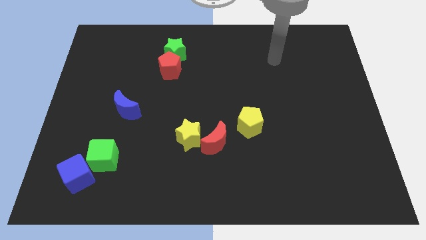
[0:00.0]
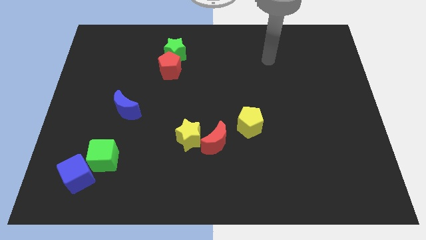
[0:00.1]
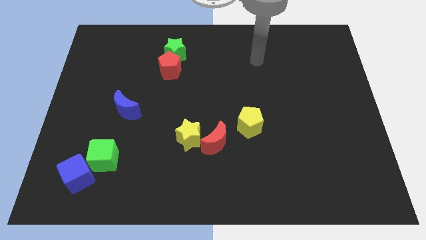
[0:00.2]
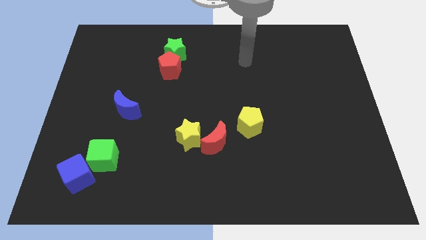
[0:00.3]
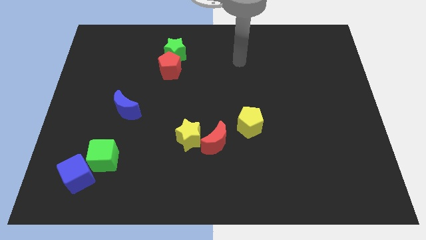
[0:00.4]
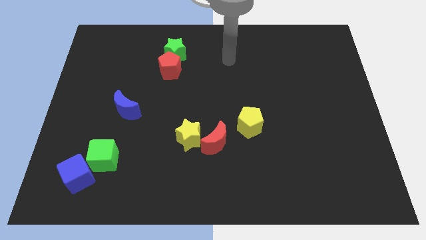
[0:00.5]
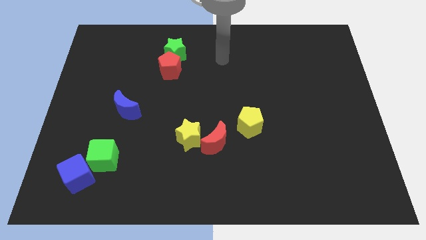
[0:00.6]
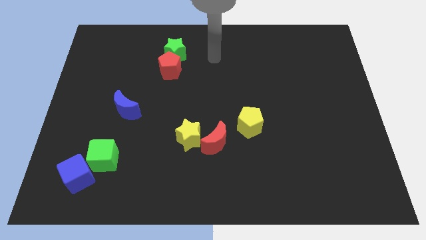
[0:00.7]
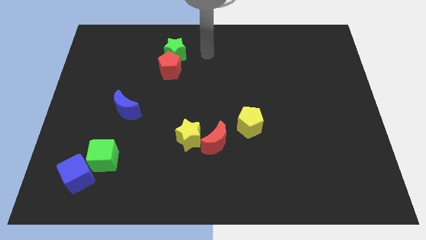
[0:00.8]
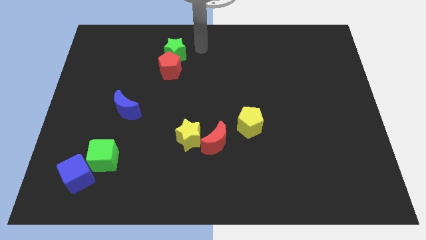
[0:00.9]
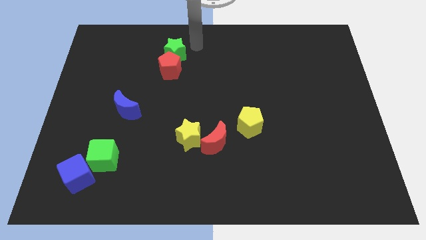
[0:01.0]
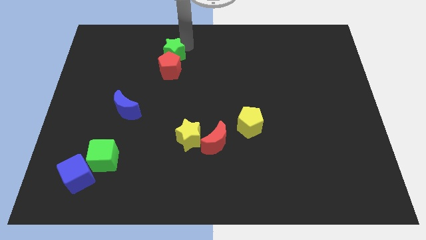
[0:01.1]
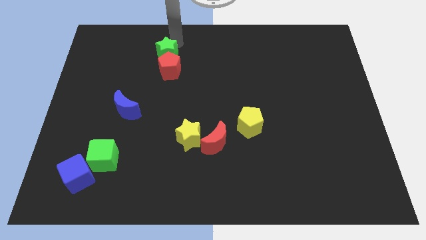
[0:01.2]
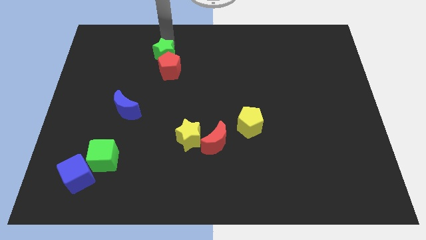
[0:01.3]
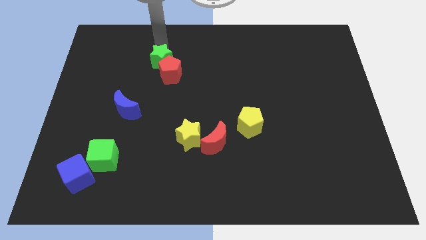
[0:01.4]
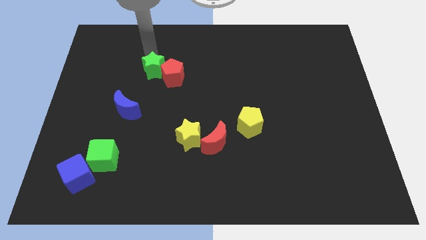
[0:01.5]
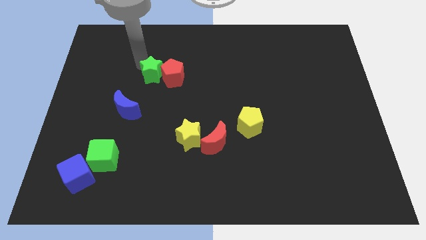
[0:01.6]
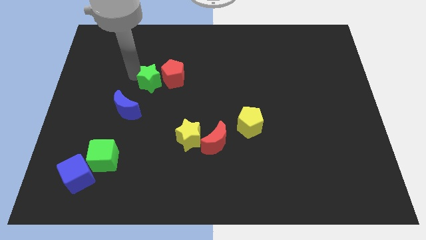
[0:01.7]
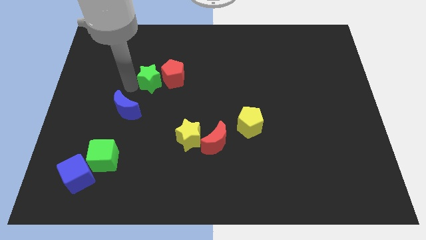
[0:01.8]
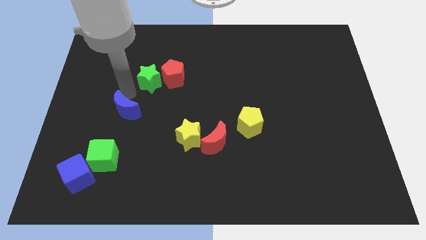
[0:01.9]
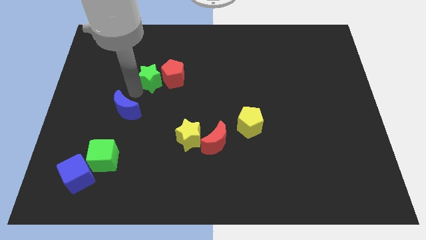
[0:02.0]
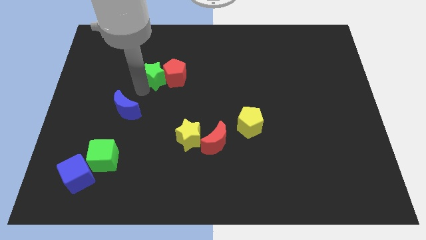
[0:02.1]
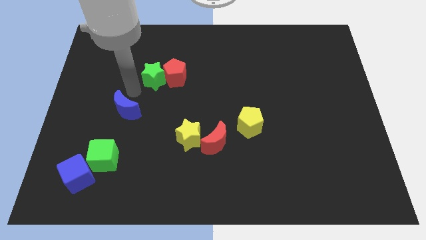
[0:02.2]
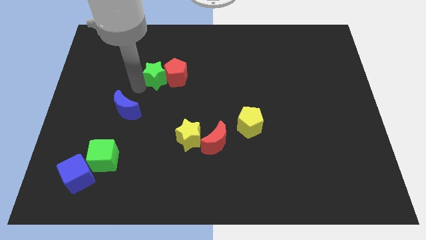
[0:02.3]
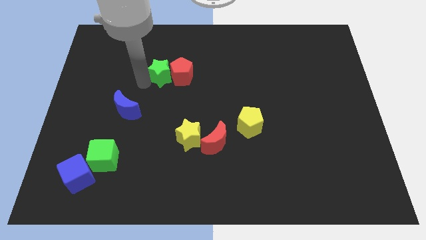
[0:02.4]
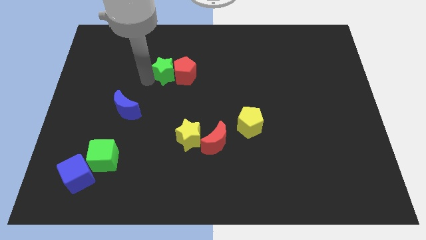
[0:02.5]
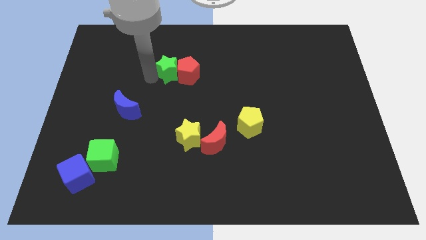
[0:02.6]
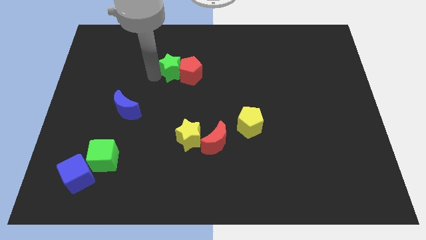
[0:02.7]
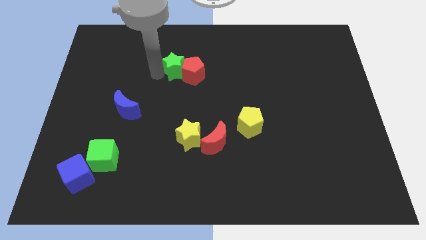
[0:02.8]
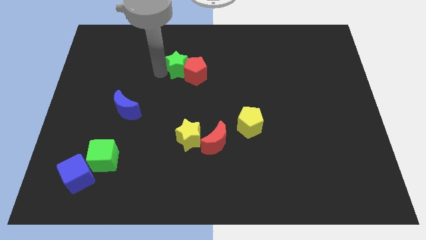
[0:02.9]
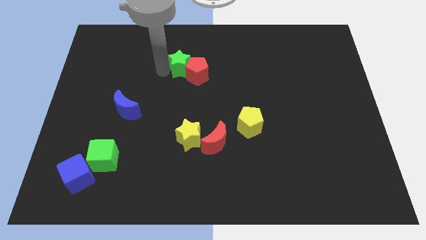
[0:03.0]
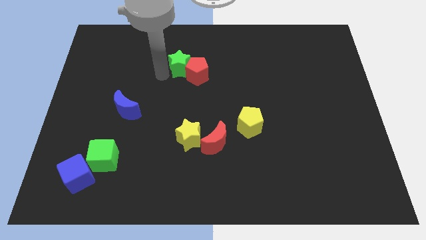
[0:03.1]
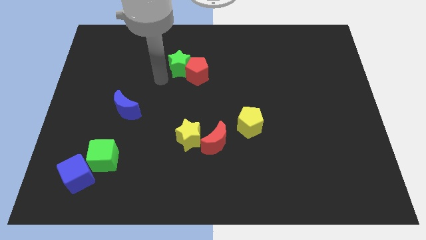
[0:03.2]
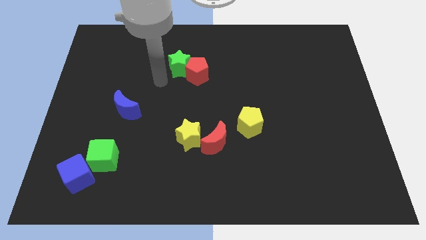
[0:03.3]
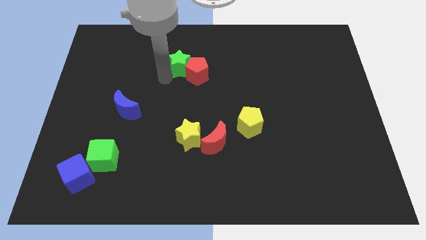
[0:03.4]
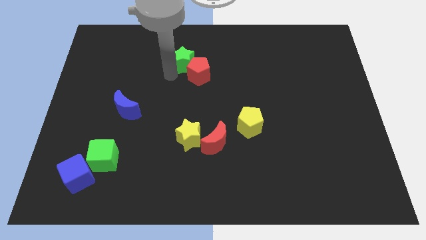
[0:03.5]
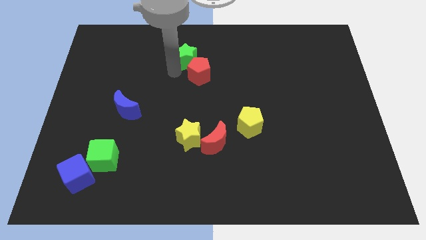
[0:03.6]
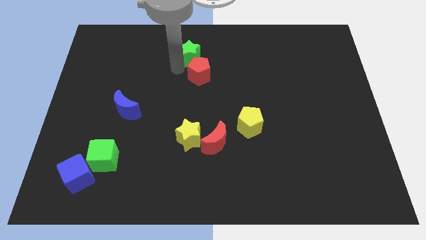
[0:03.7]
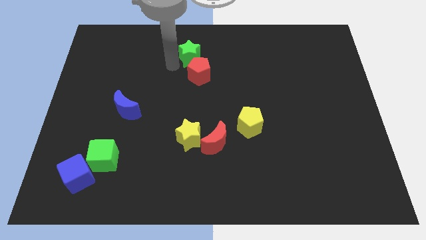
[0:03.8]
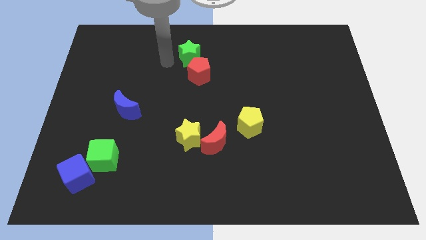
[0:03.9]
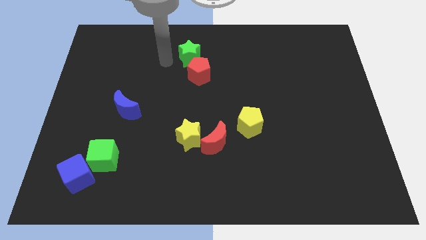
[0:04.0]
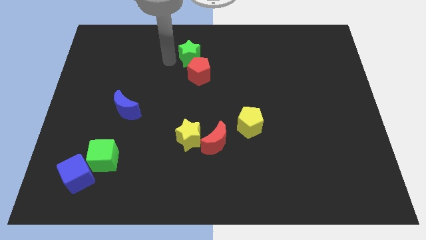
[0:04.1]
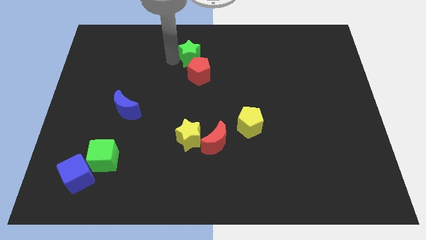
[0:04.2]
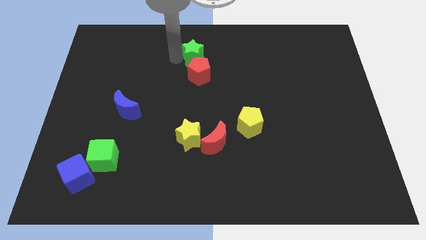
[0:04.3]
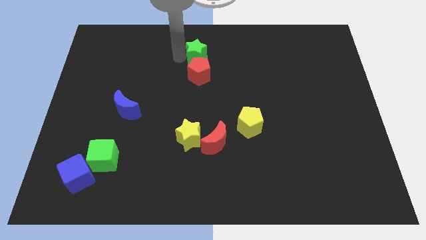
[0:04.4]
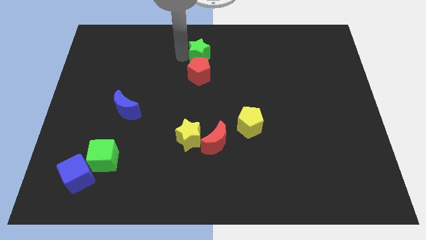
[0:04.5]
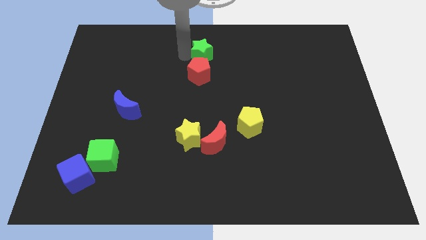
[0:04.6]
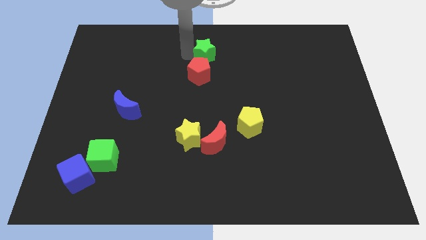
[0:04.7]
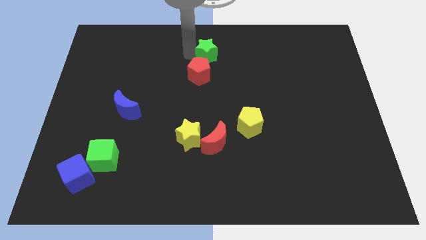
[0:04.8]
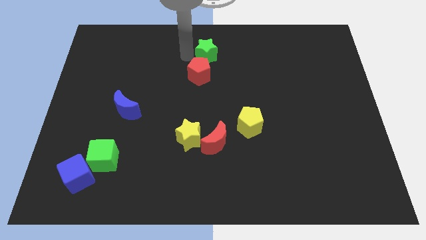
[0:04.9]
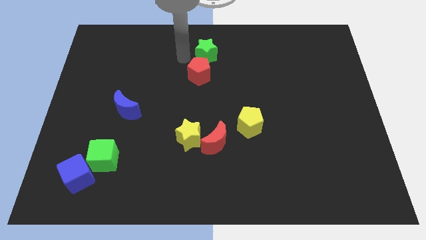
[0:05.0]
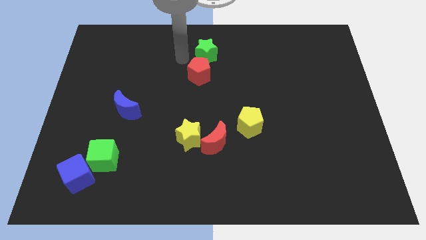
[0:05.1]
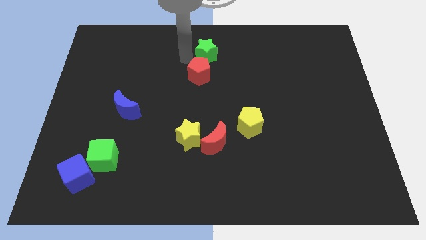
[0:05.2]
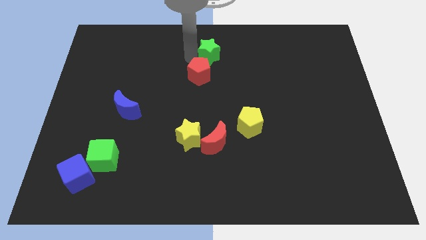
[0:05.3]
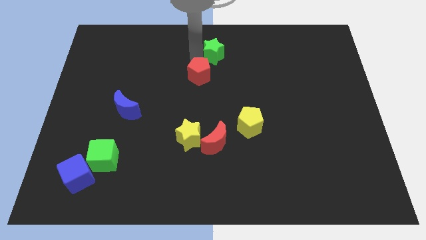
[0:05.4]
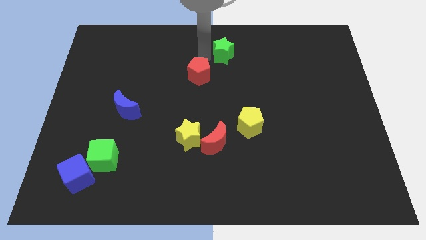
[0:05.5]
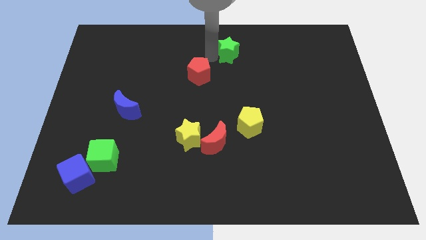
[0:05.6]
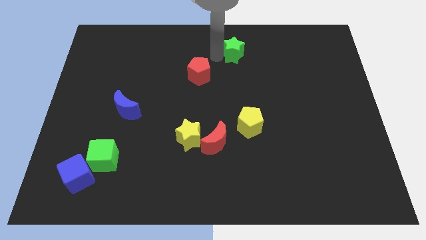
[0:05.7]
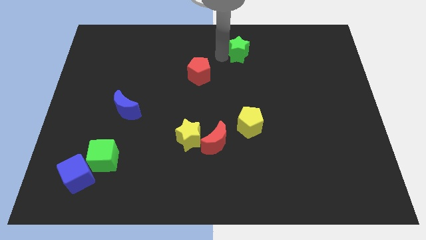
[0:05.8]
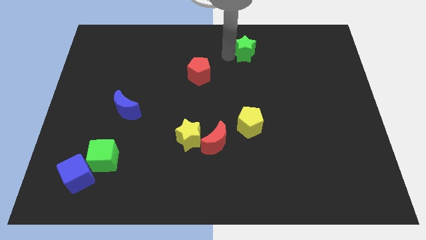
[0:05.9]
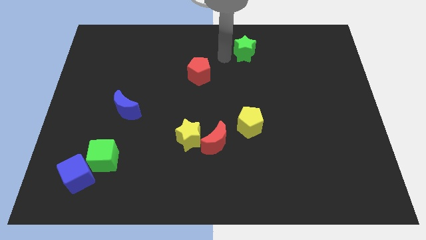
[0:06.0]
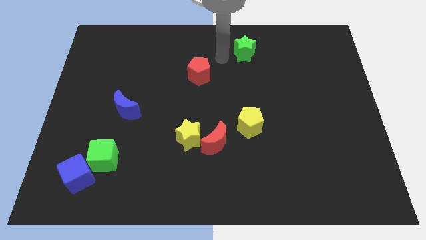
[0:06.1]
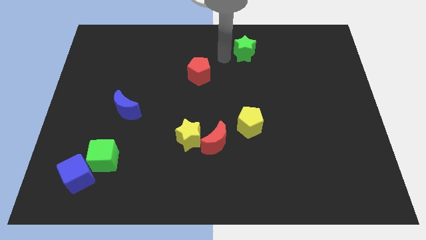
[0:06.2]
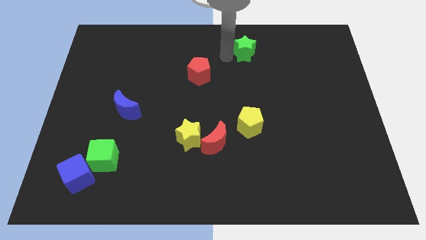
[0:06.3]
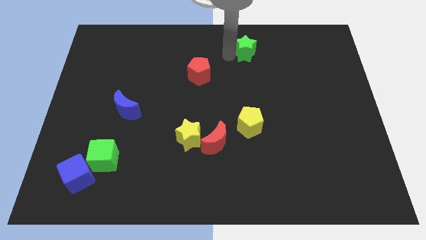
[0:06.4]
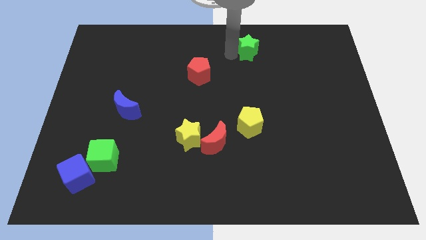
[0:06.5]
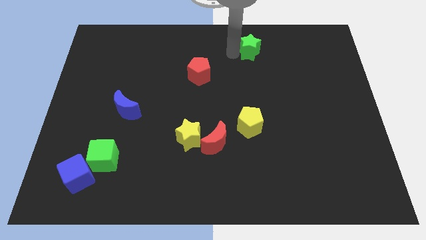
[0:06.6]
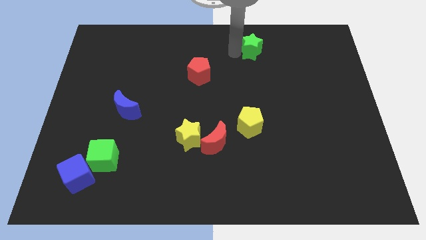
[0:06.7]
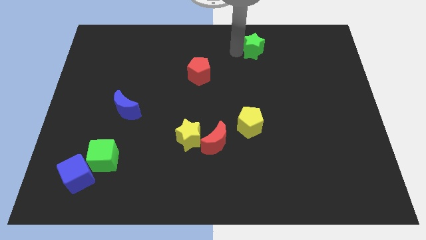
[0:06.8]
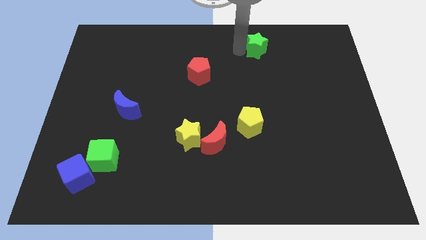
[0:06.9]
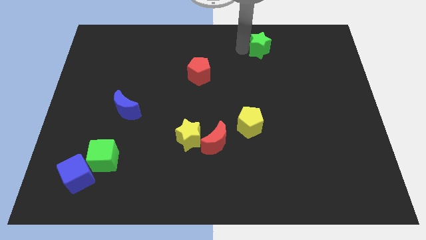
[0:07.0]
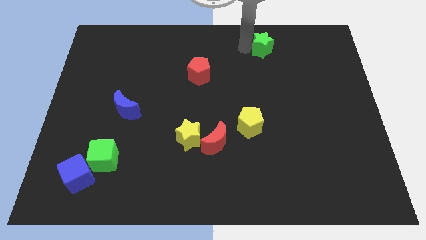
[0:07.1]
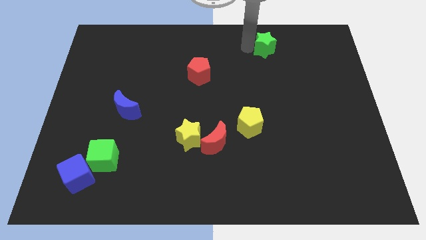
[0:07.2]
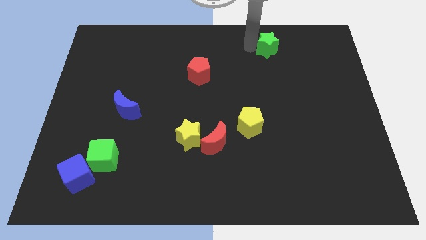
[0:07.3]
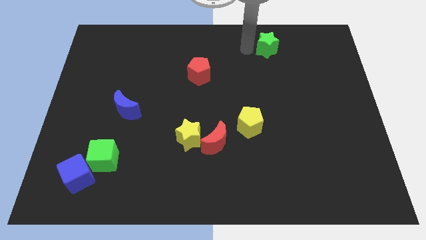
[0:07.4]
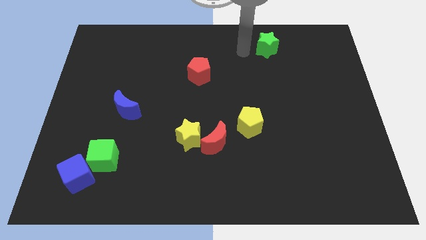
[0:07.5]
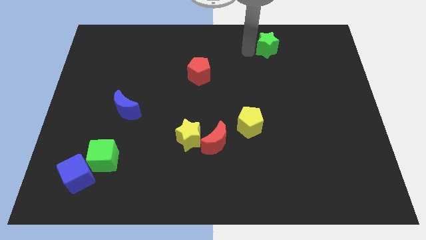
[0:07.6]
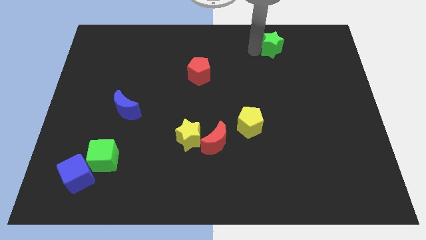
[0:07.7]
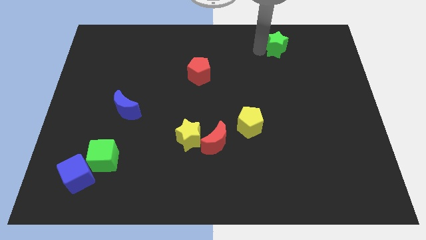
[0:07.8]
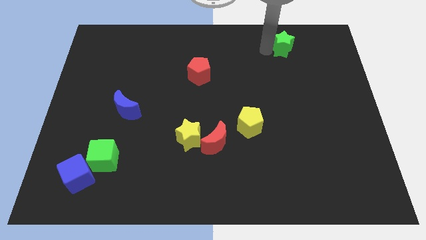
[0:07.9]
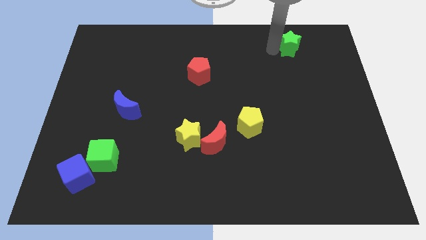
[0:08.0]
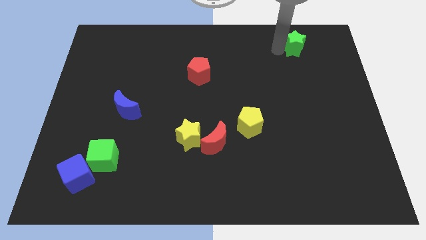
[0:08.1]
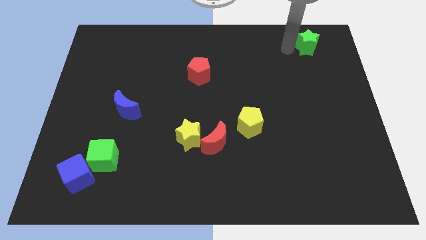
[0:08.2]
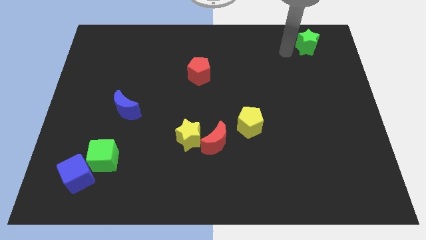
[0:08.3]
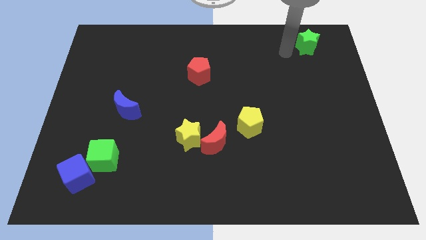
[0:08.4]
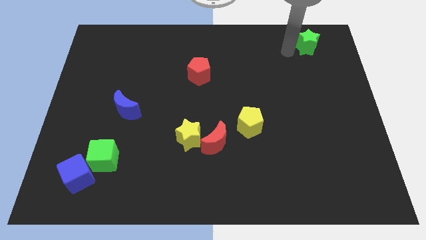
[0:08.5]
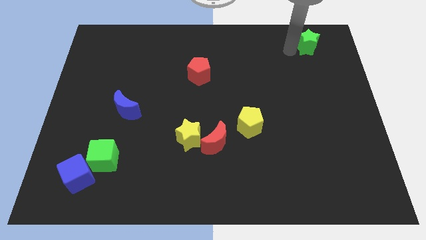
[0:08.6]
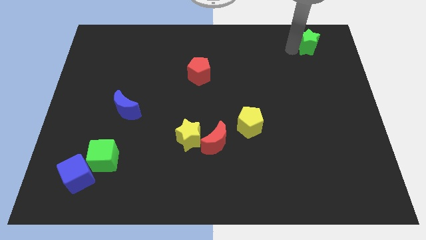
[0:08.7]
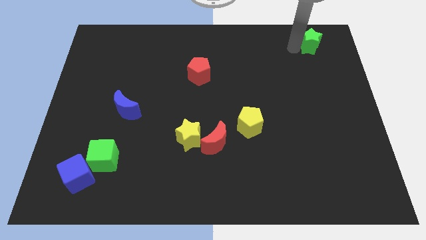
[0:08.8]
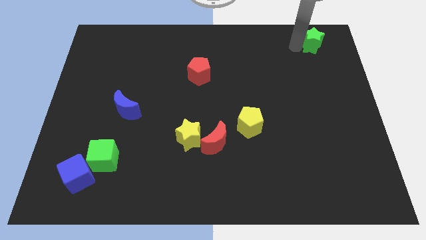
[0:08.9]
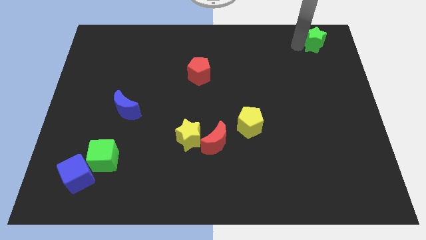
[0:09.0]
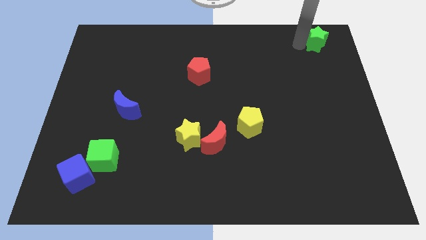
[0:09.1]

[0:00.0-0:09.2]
push the green star to the top right corner
